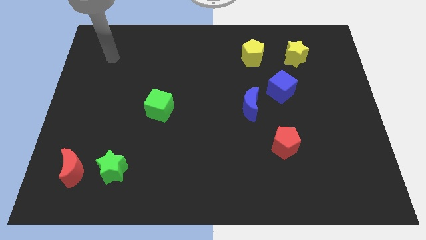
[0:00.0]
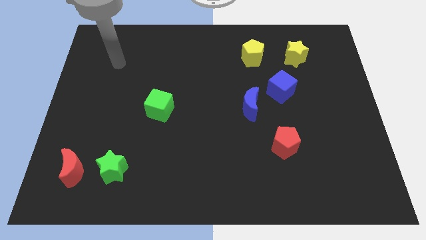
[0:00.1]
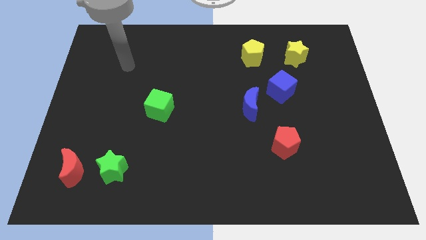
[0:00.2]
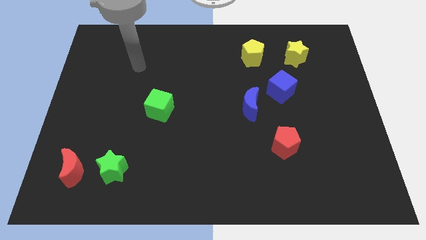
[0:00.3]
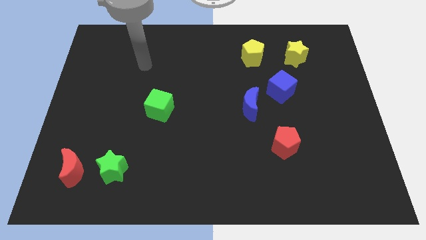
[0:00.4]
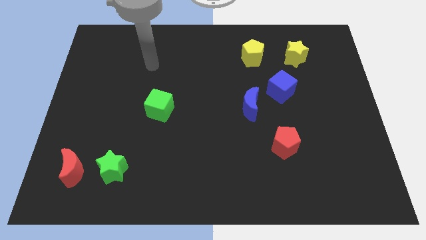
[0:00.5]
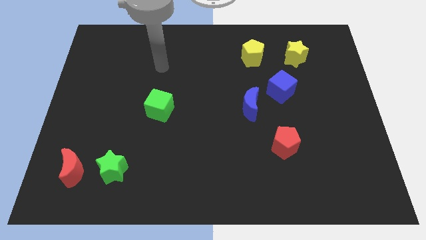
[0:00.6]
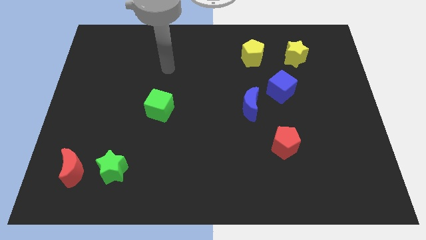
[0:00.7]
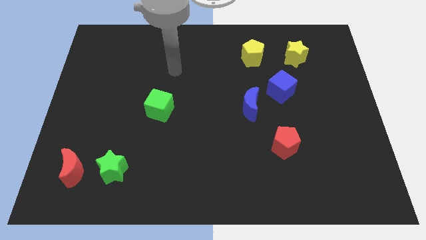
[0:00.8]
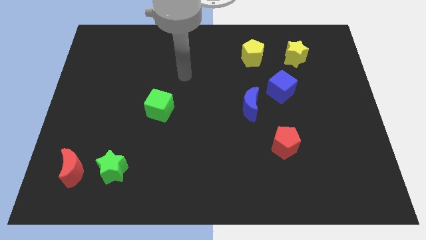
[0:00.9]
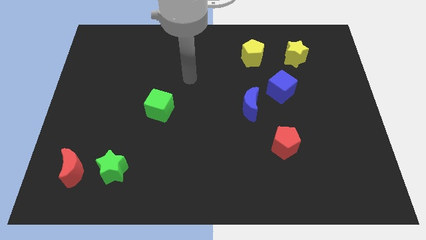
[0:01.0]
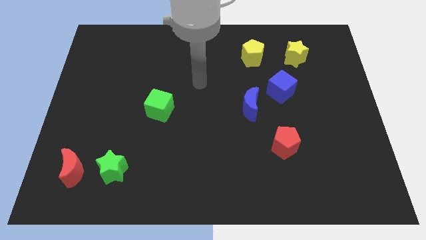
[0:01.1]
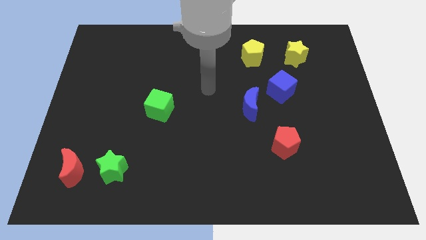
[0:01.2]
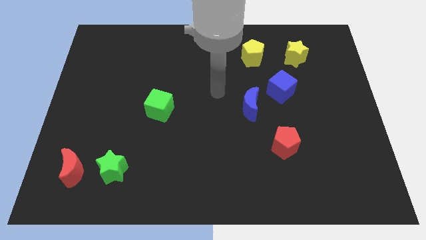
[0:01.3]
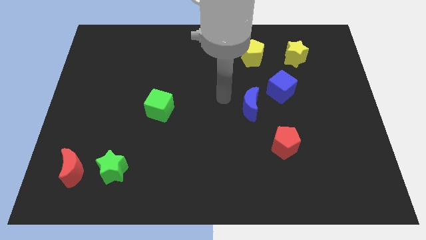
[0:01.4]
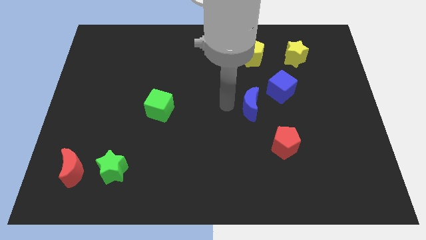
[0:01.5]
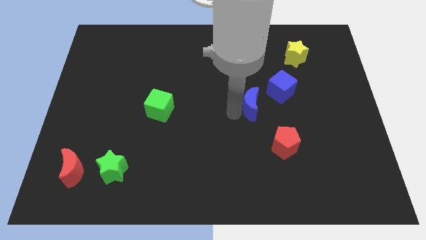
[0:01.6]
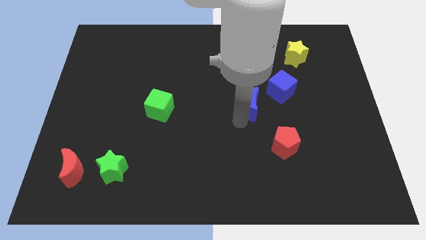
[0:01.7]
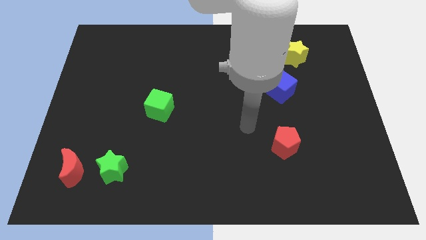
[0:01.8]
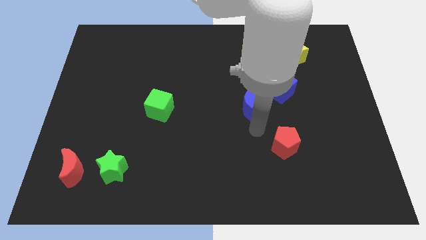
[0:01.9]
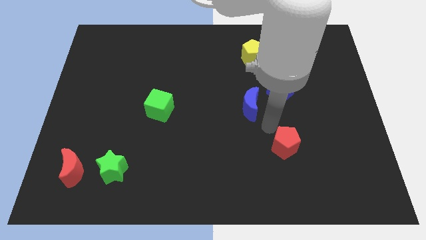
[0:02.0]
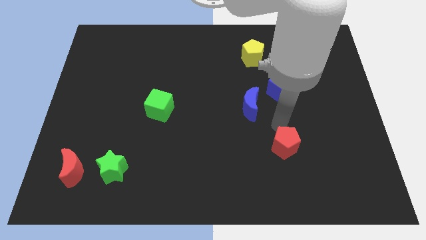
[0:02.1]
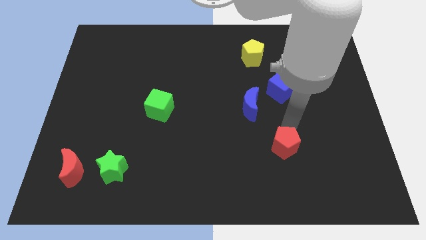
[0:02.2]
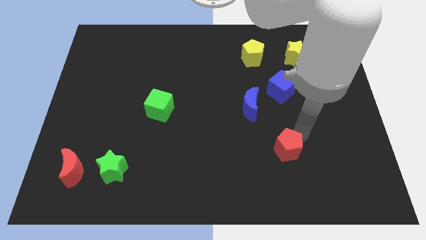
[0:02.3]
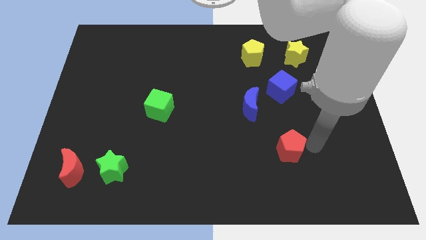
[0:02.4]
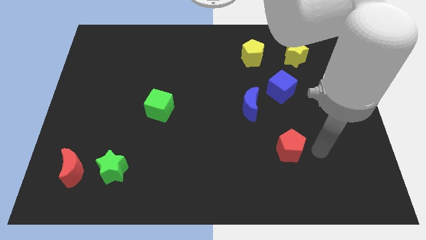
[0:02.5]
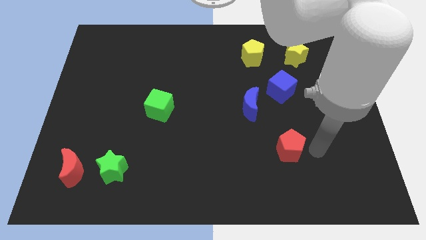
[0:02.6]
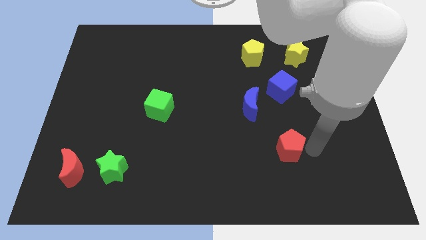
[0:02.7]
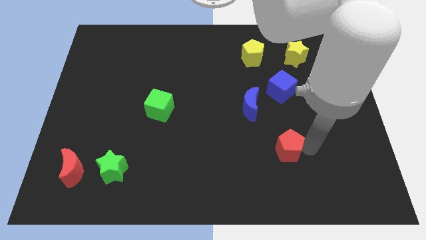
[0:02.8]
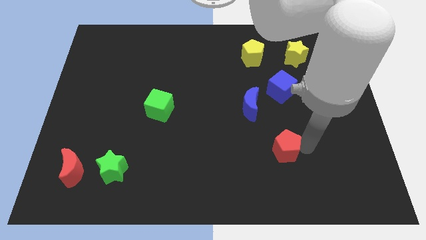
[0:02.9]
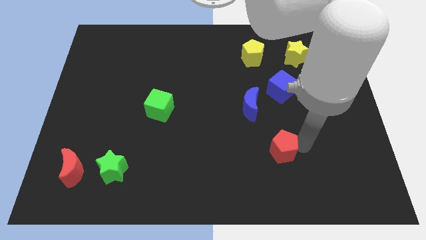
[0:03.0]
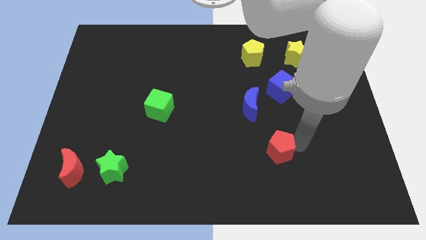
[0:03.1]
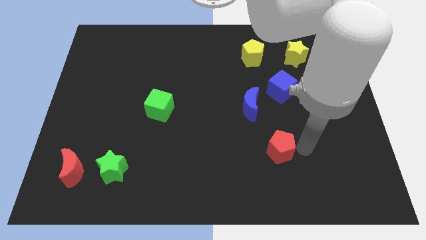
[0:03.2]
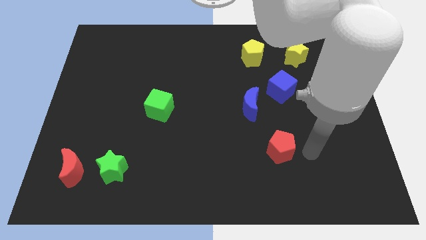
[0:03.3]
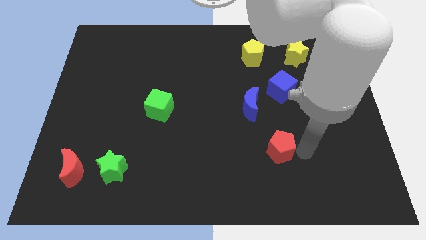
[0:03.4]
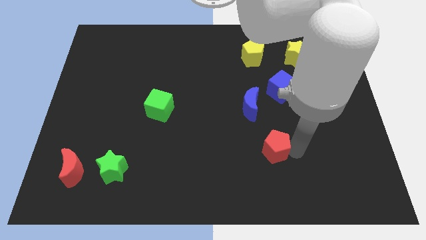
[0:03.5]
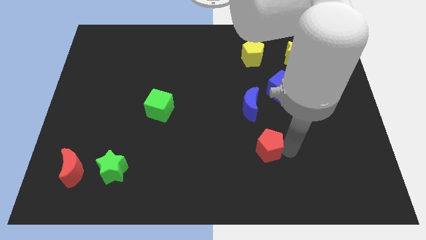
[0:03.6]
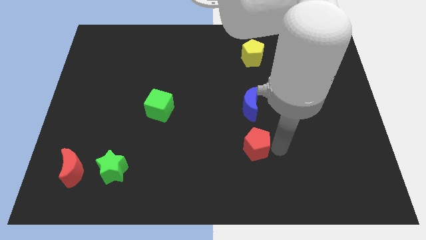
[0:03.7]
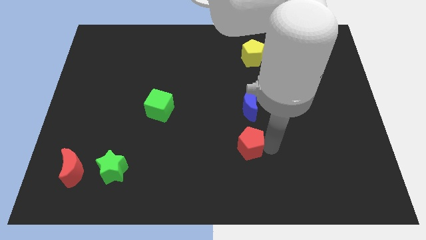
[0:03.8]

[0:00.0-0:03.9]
move the red pentagon a little bit to the left

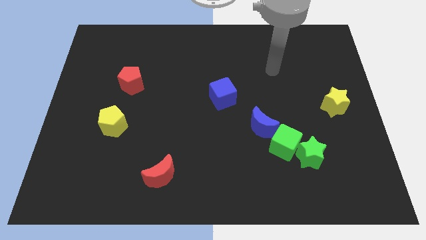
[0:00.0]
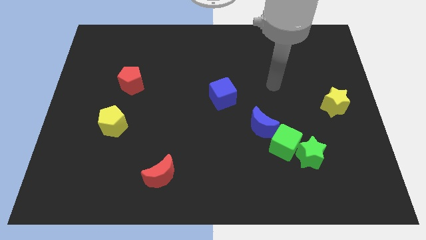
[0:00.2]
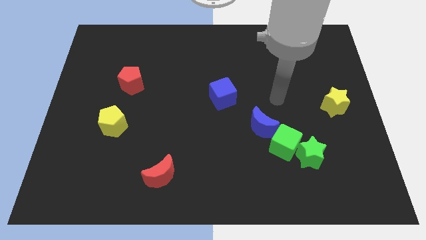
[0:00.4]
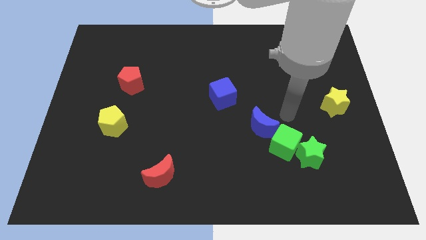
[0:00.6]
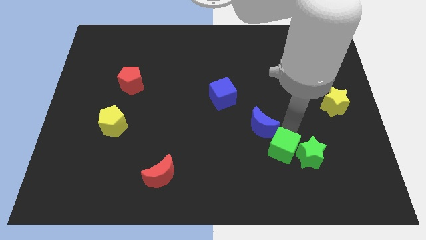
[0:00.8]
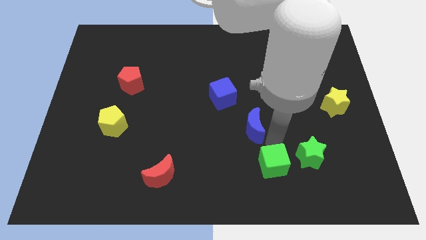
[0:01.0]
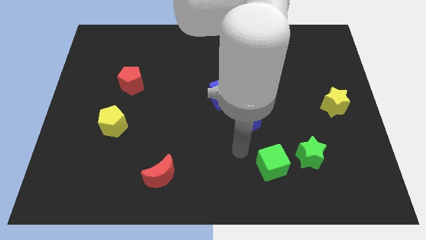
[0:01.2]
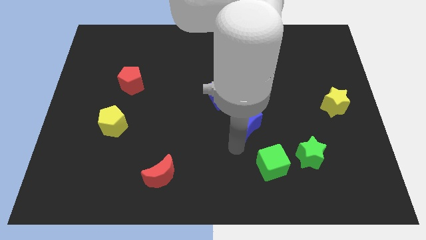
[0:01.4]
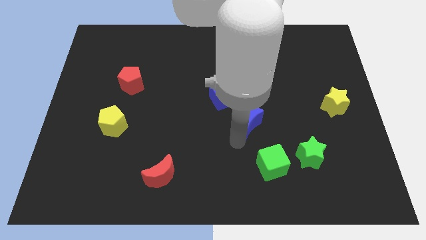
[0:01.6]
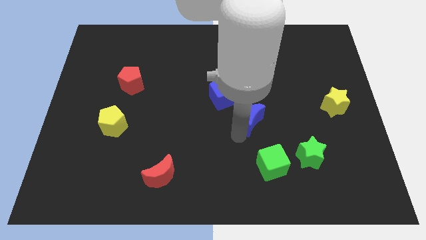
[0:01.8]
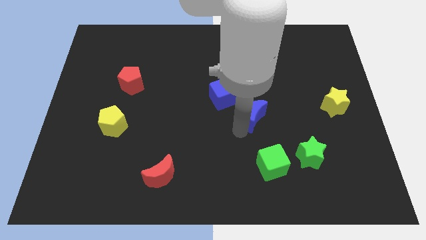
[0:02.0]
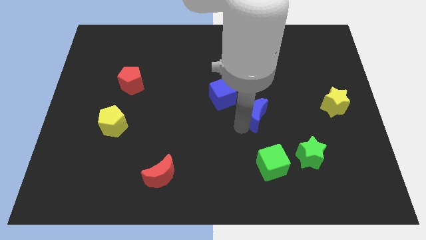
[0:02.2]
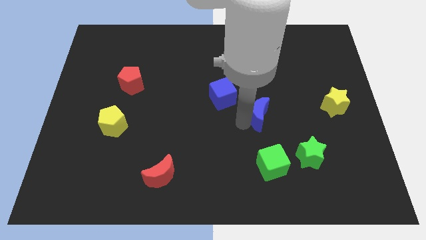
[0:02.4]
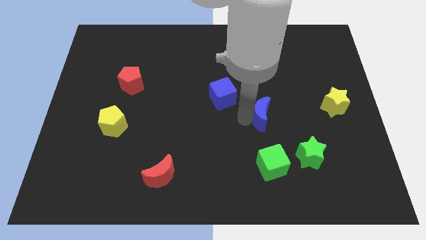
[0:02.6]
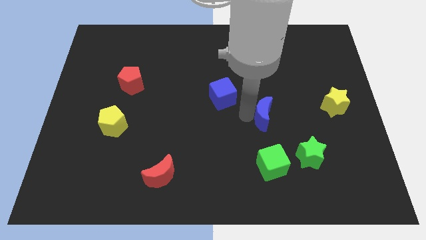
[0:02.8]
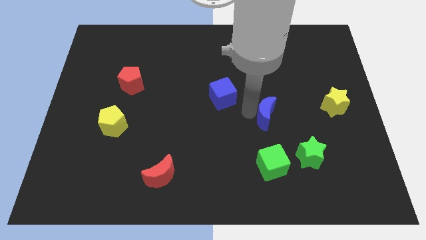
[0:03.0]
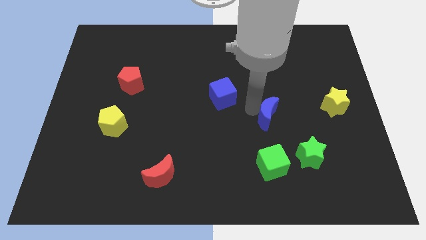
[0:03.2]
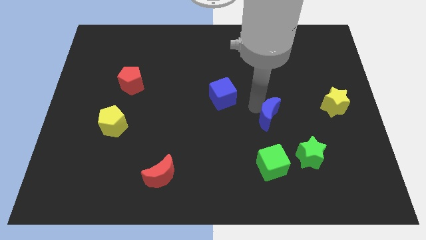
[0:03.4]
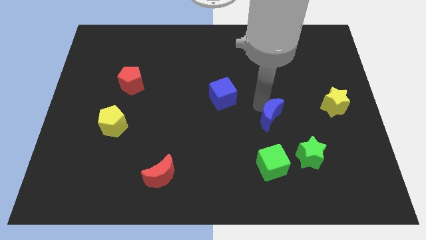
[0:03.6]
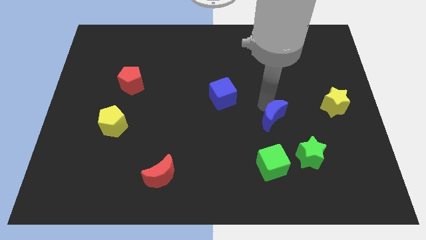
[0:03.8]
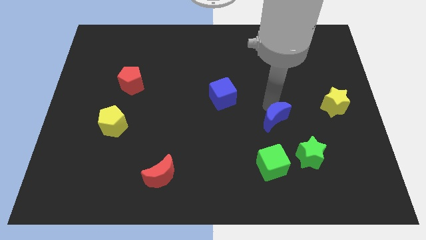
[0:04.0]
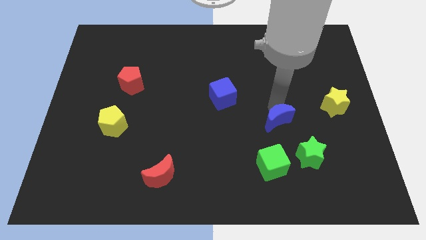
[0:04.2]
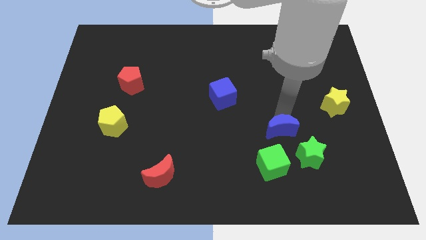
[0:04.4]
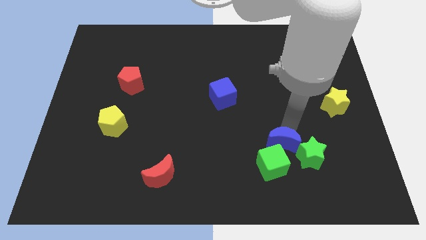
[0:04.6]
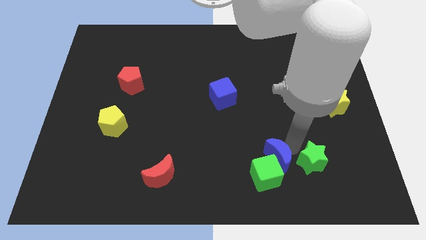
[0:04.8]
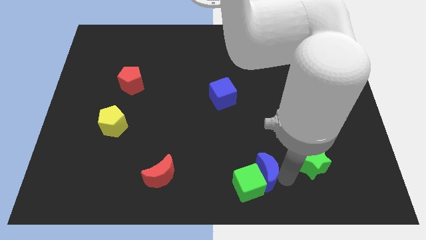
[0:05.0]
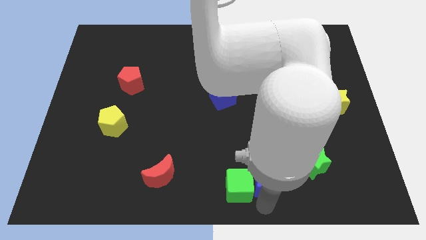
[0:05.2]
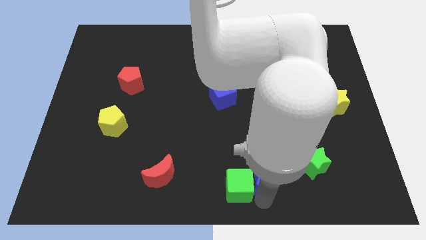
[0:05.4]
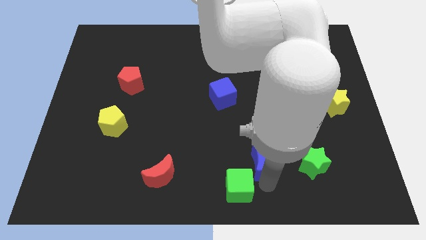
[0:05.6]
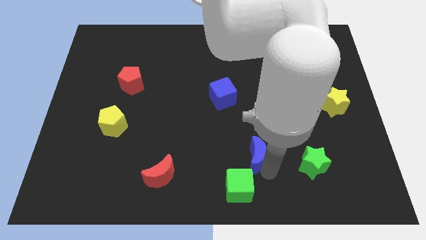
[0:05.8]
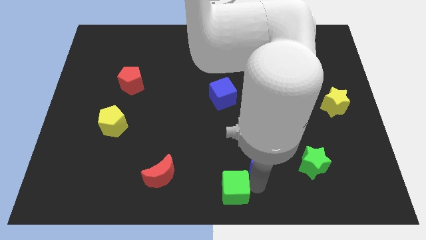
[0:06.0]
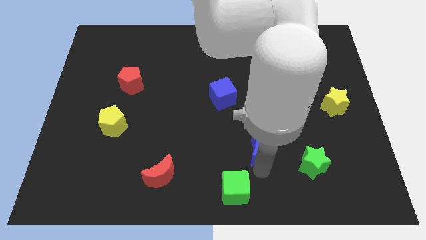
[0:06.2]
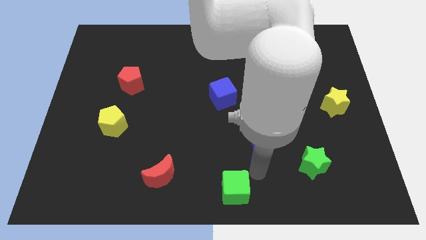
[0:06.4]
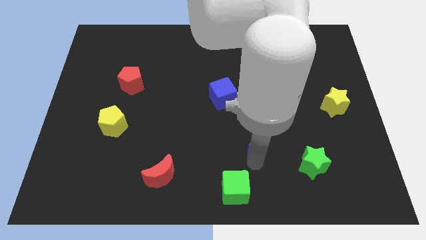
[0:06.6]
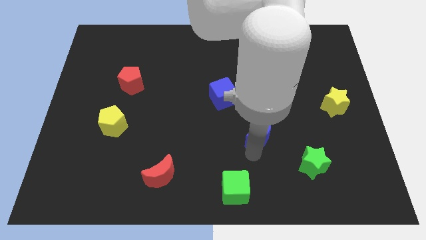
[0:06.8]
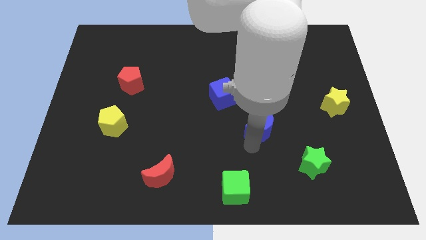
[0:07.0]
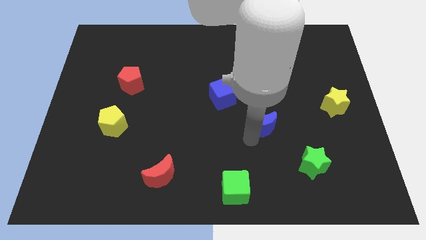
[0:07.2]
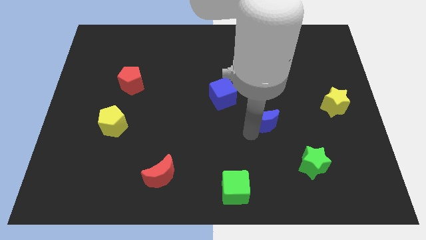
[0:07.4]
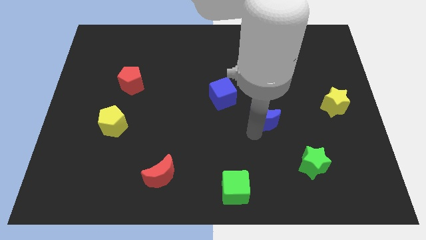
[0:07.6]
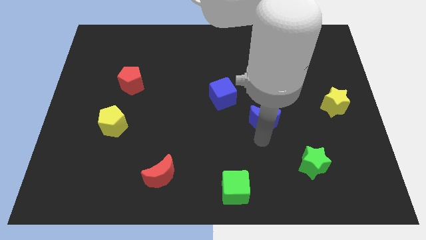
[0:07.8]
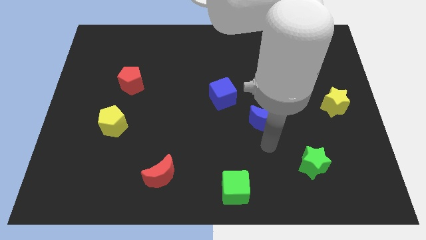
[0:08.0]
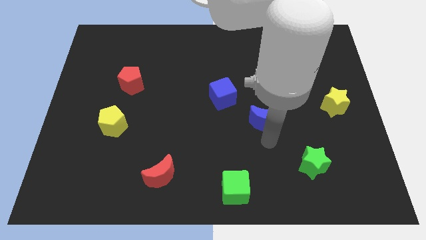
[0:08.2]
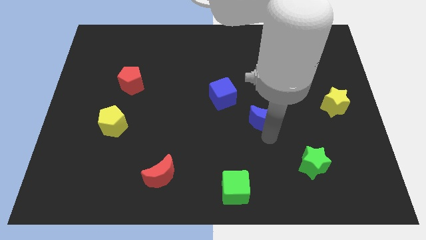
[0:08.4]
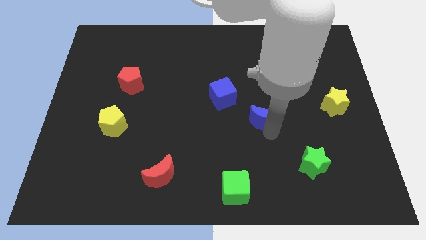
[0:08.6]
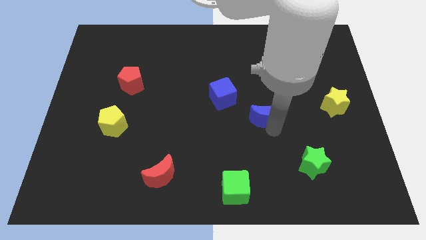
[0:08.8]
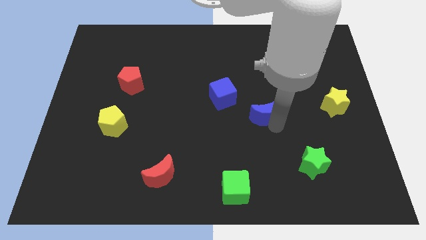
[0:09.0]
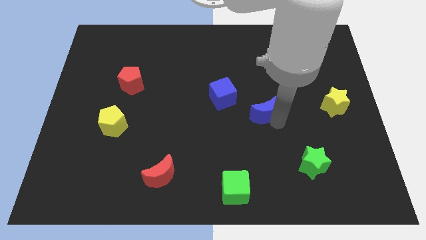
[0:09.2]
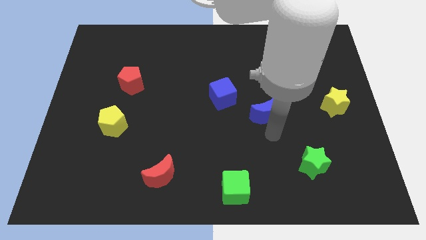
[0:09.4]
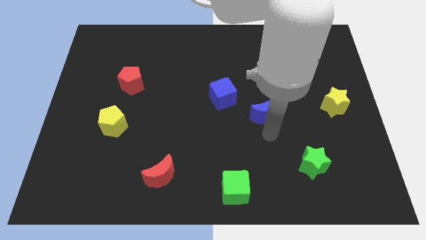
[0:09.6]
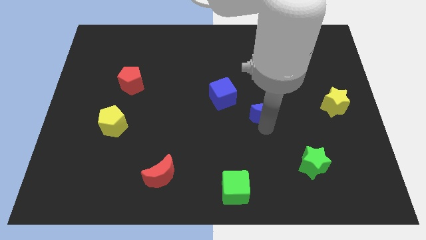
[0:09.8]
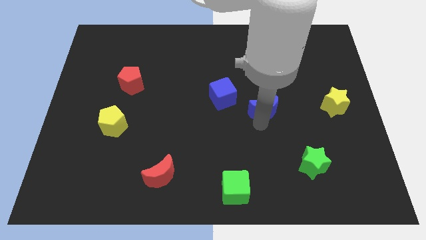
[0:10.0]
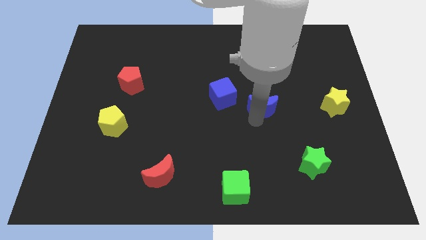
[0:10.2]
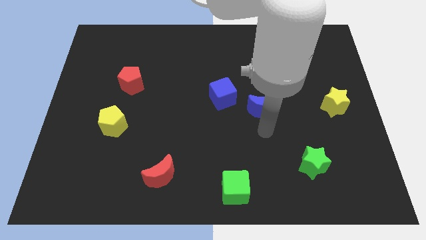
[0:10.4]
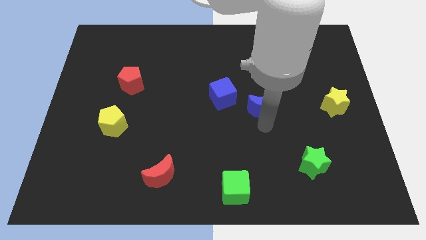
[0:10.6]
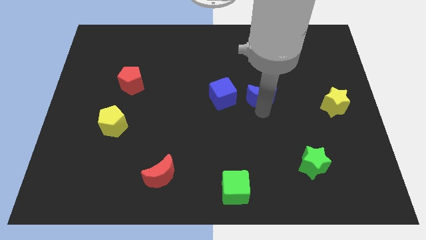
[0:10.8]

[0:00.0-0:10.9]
slightly push the blue moon up
